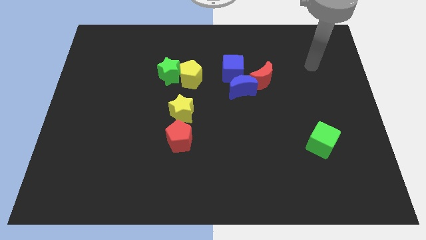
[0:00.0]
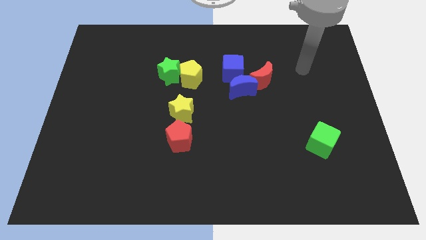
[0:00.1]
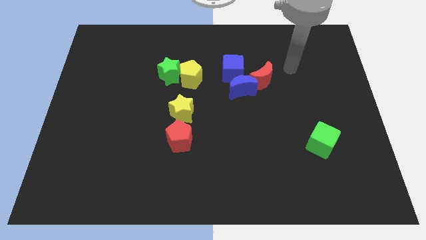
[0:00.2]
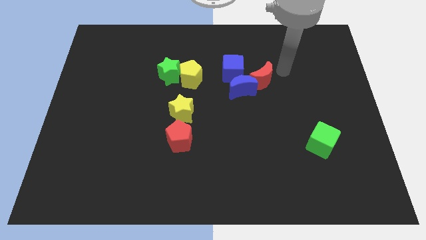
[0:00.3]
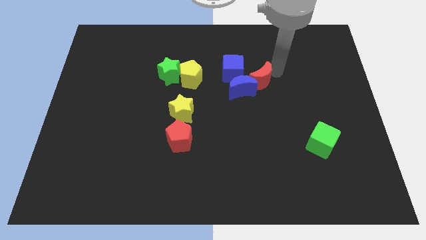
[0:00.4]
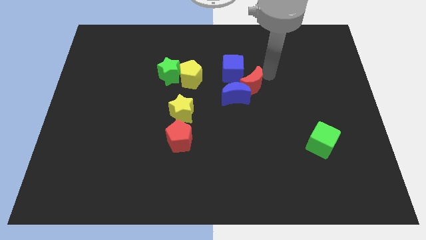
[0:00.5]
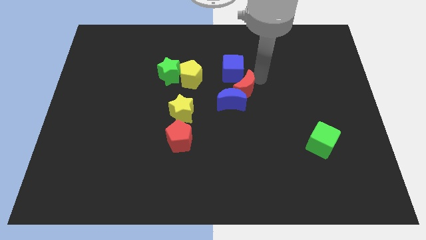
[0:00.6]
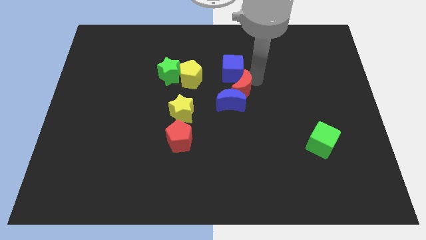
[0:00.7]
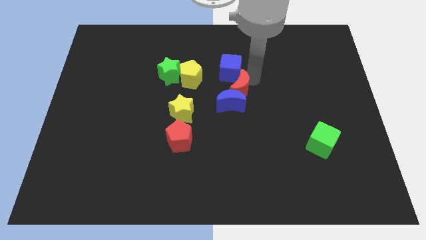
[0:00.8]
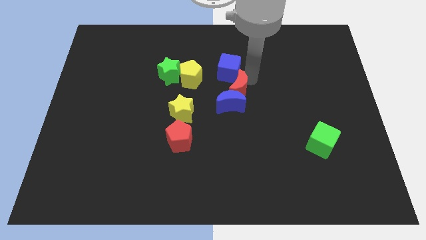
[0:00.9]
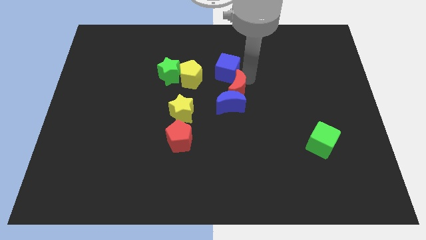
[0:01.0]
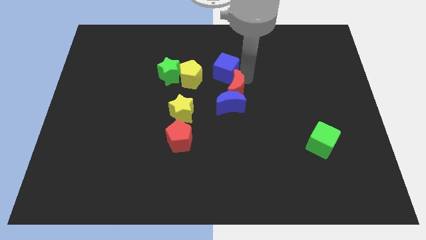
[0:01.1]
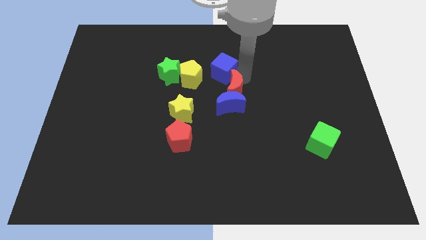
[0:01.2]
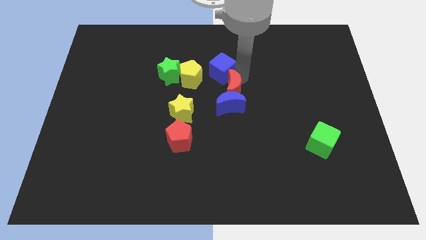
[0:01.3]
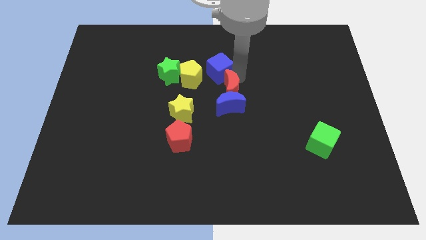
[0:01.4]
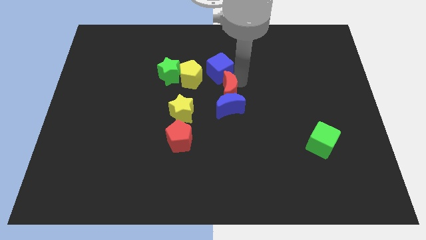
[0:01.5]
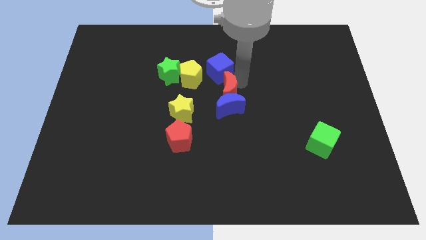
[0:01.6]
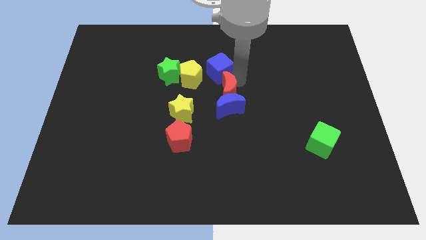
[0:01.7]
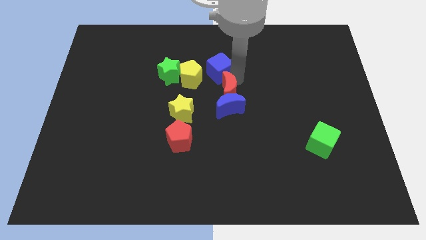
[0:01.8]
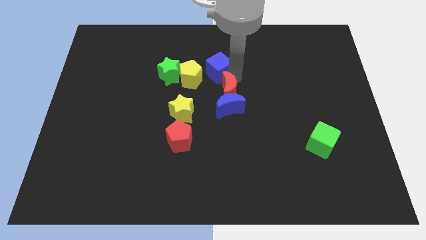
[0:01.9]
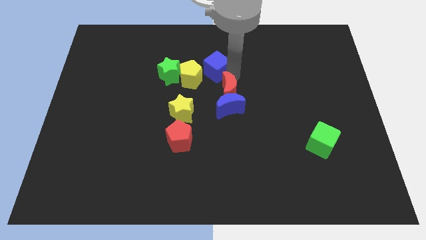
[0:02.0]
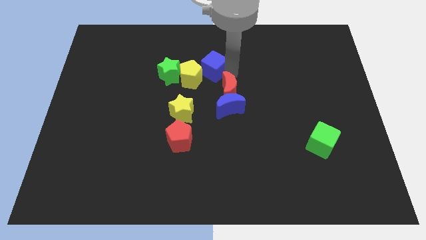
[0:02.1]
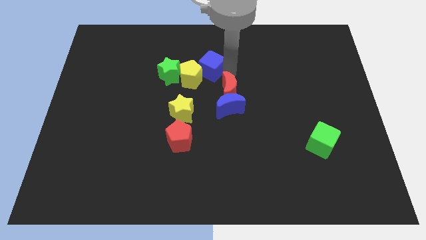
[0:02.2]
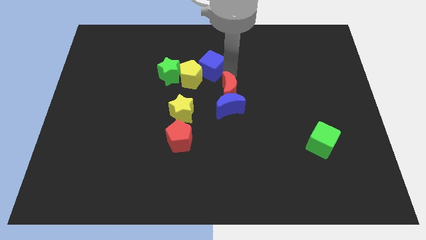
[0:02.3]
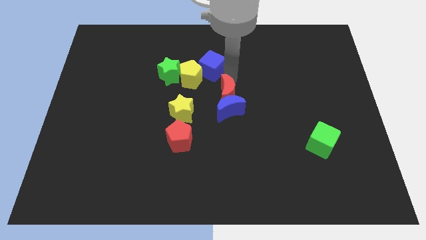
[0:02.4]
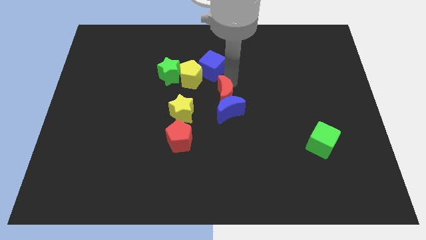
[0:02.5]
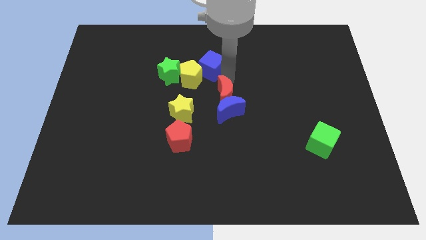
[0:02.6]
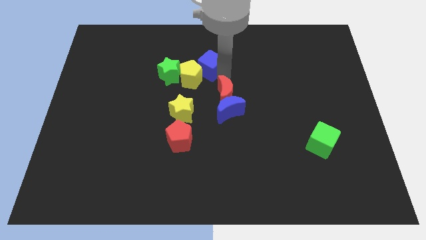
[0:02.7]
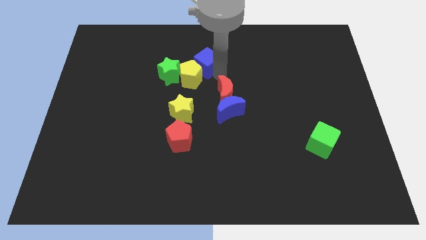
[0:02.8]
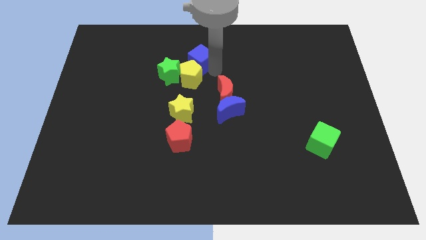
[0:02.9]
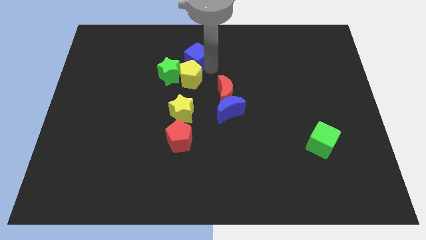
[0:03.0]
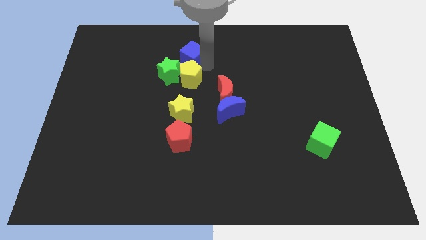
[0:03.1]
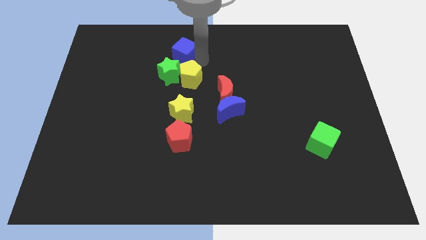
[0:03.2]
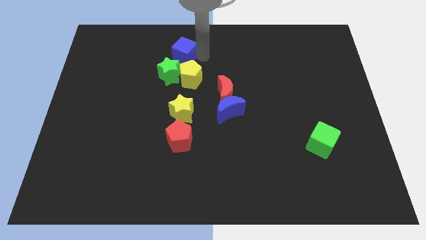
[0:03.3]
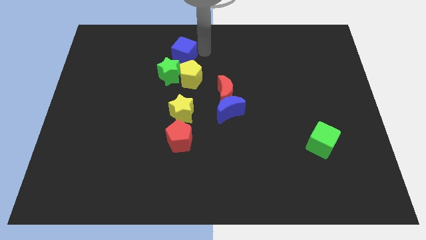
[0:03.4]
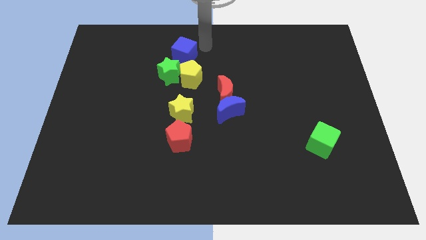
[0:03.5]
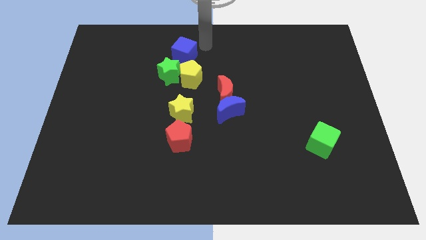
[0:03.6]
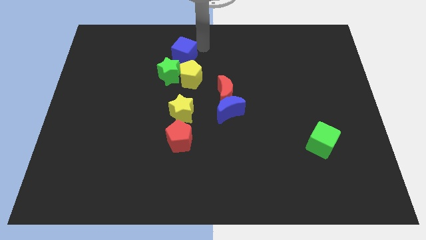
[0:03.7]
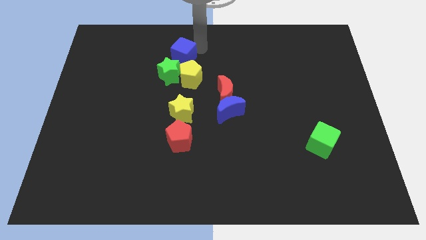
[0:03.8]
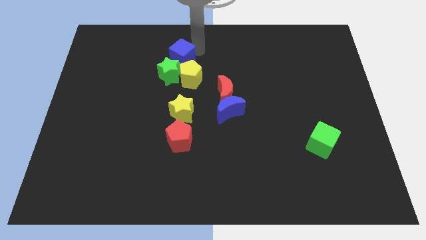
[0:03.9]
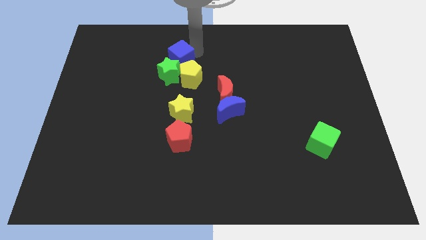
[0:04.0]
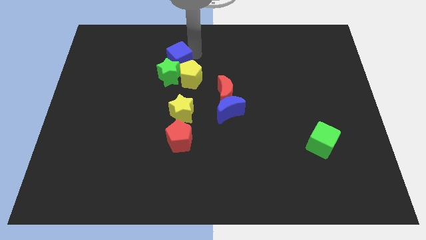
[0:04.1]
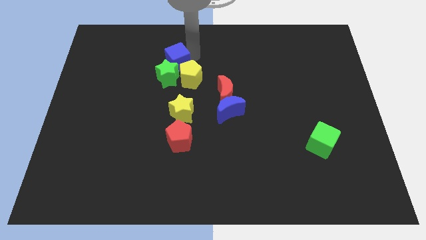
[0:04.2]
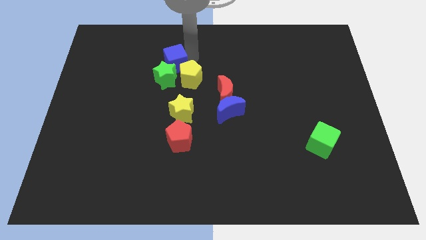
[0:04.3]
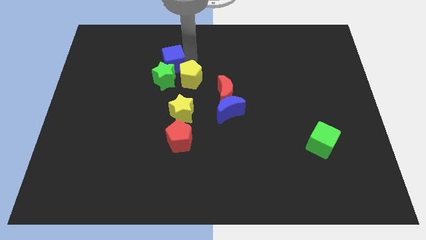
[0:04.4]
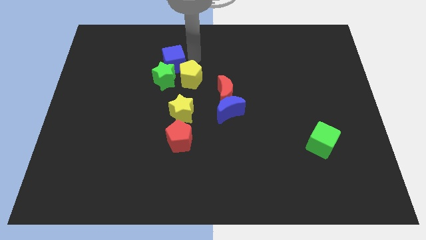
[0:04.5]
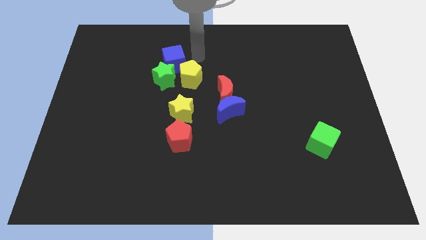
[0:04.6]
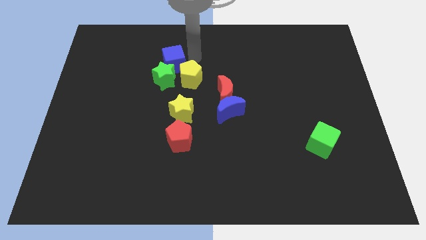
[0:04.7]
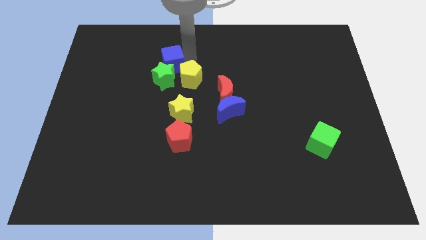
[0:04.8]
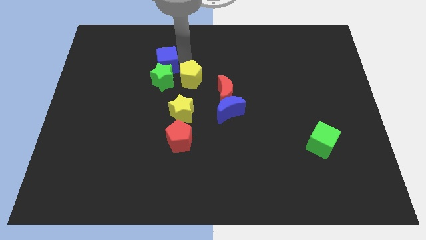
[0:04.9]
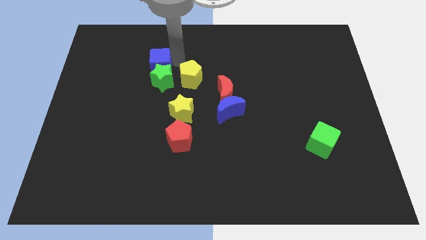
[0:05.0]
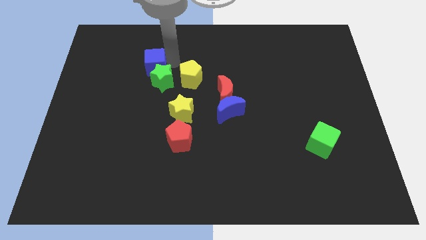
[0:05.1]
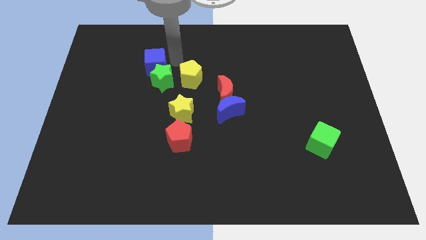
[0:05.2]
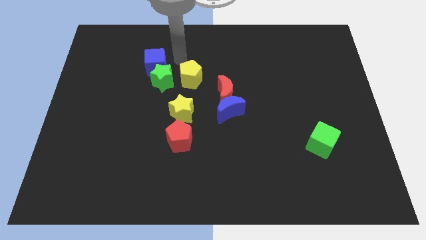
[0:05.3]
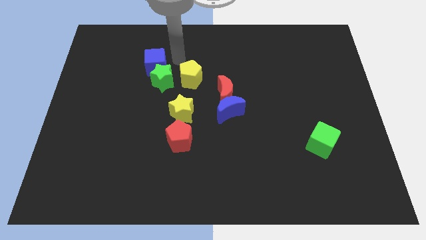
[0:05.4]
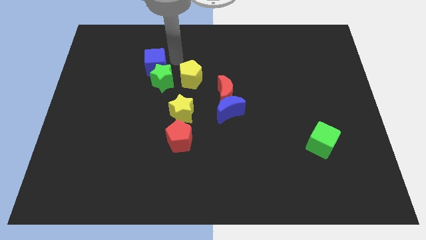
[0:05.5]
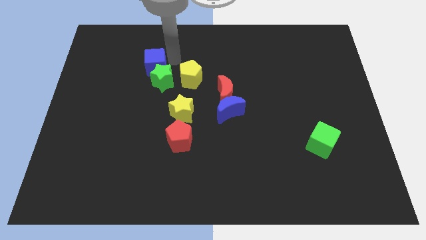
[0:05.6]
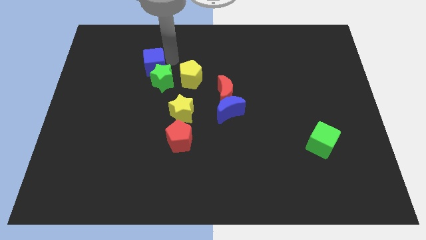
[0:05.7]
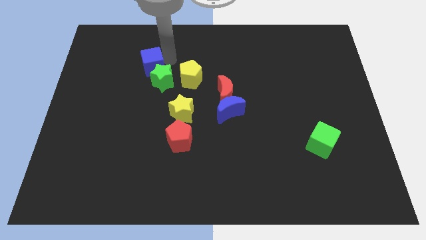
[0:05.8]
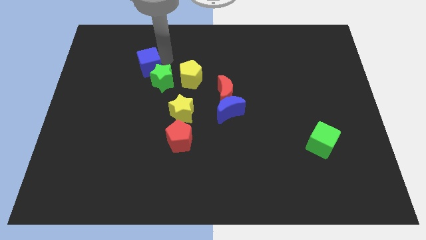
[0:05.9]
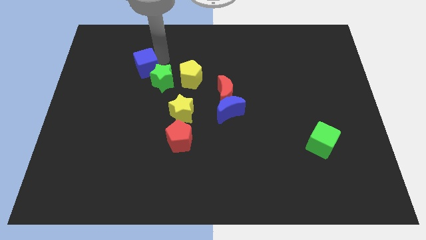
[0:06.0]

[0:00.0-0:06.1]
slide the blue cube left of the green star

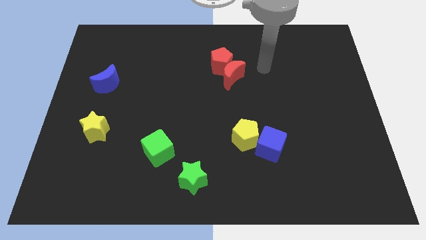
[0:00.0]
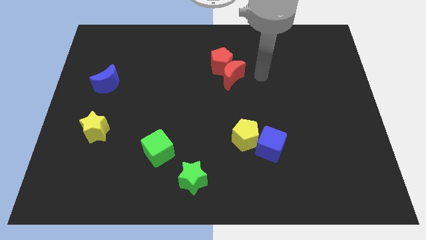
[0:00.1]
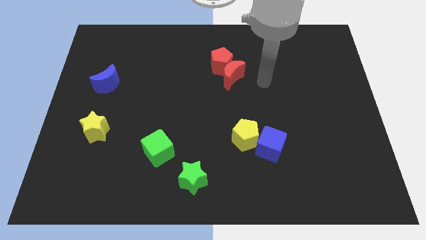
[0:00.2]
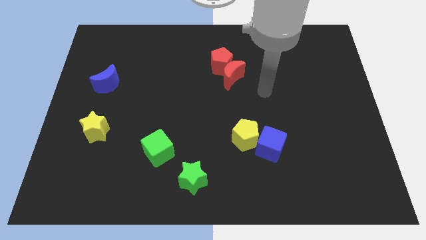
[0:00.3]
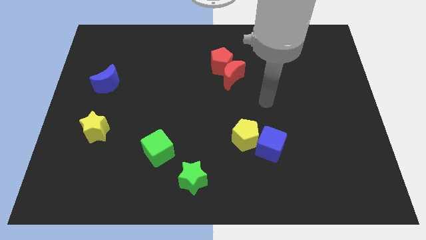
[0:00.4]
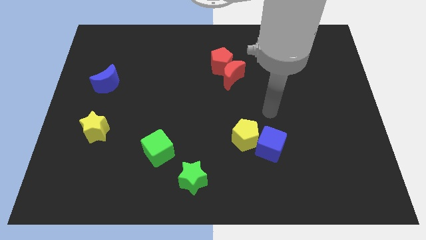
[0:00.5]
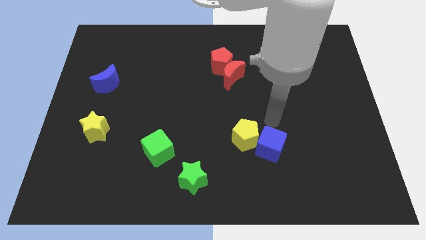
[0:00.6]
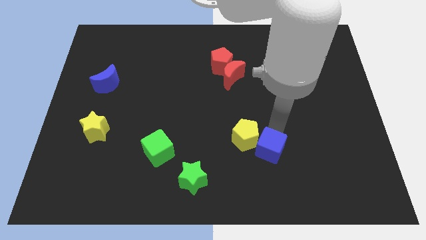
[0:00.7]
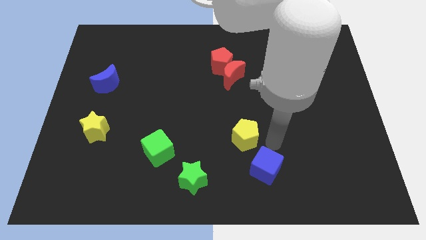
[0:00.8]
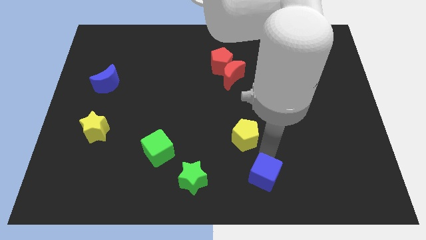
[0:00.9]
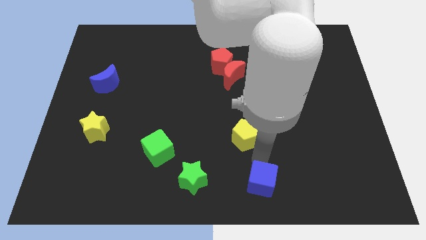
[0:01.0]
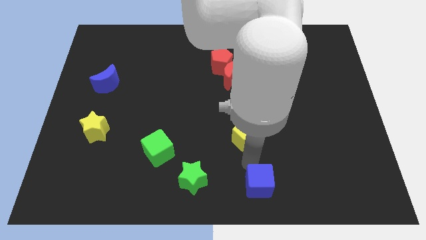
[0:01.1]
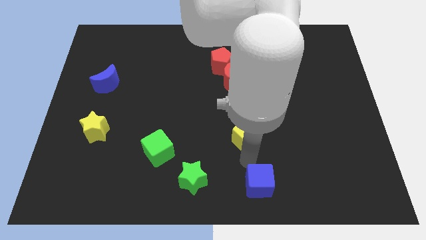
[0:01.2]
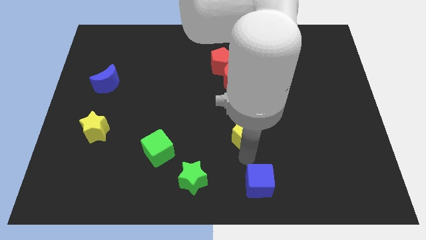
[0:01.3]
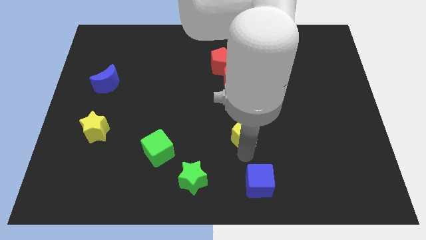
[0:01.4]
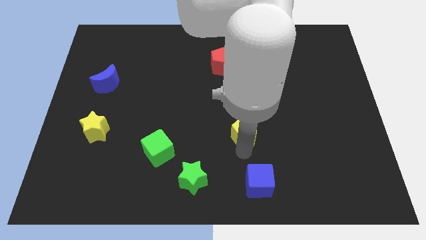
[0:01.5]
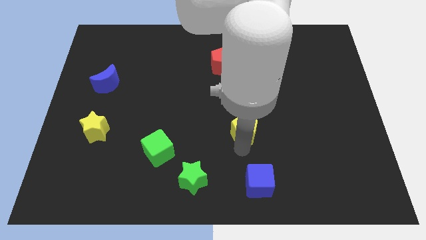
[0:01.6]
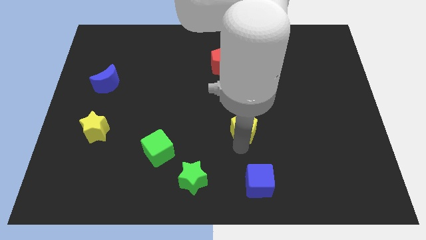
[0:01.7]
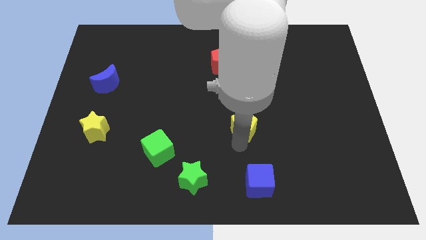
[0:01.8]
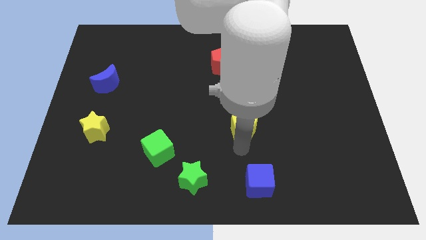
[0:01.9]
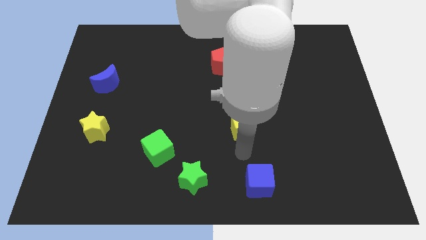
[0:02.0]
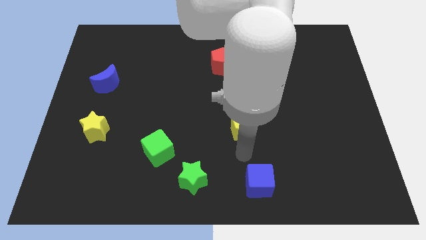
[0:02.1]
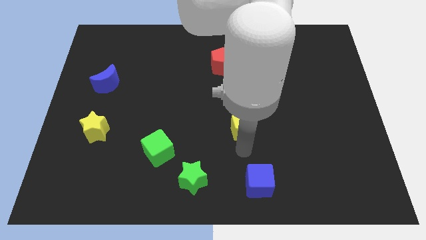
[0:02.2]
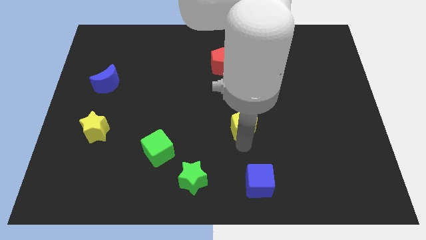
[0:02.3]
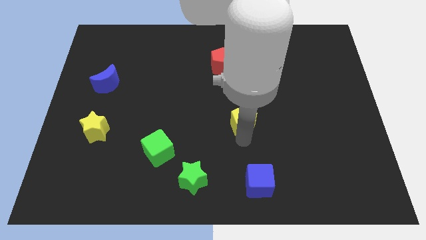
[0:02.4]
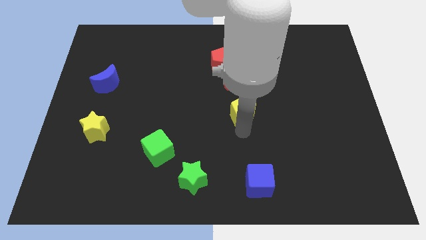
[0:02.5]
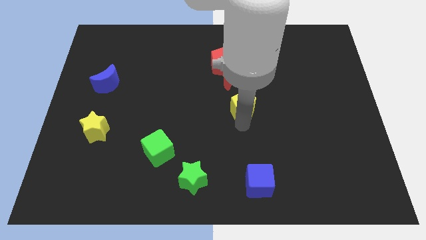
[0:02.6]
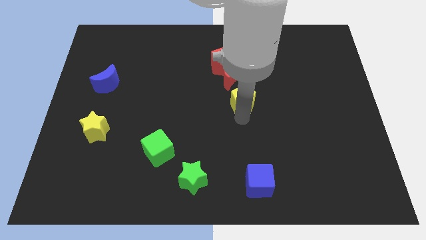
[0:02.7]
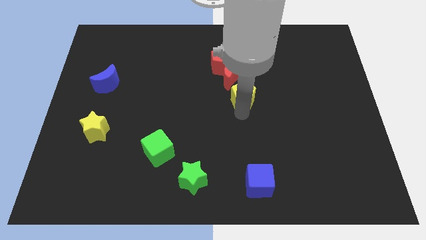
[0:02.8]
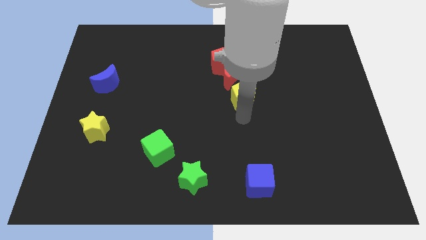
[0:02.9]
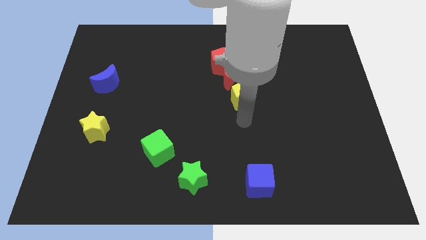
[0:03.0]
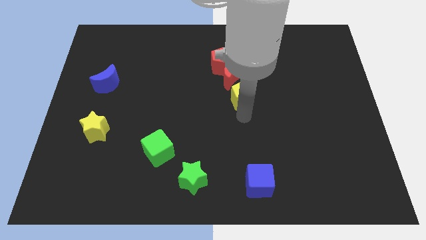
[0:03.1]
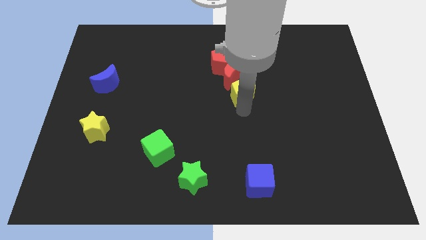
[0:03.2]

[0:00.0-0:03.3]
move the yellow pentagon to the bottom right side of the red pentagon
